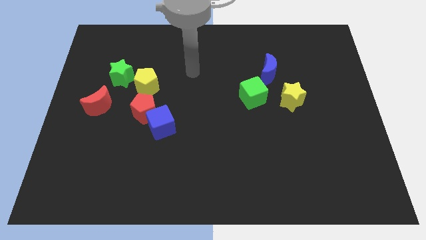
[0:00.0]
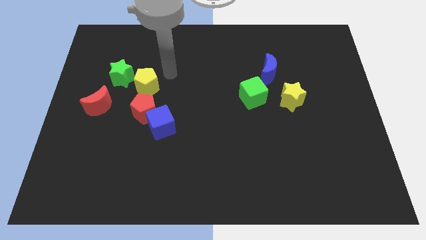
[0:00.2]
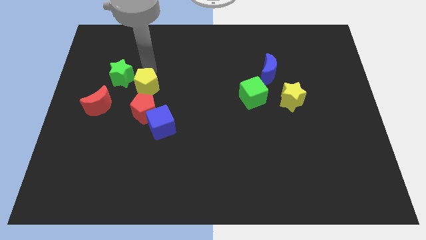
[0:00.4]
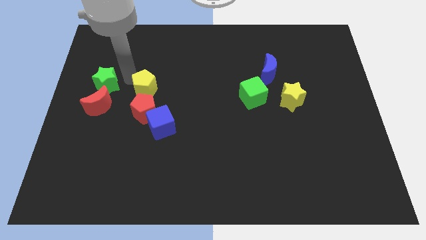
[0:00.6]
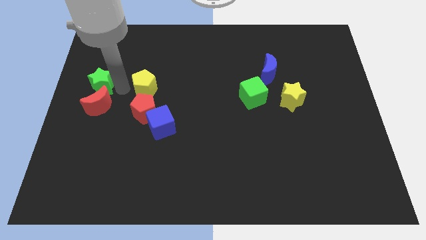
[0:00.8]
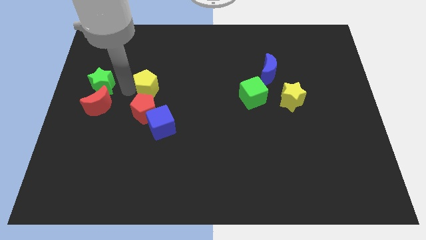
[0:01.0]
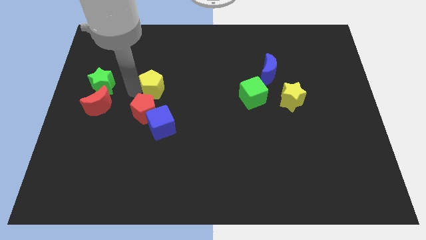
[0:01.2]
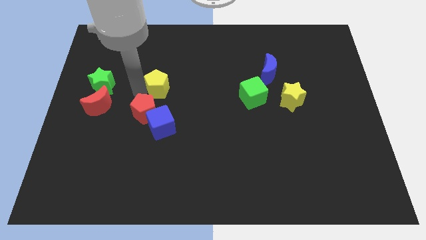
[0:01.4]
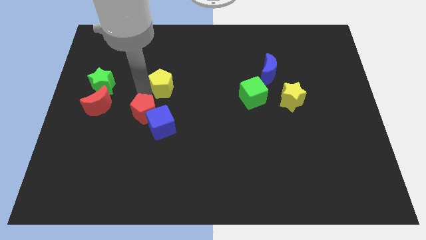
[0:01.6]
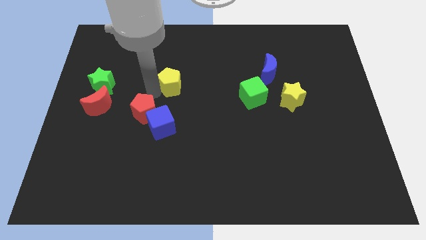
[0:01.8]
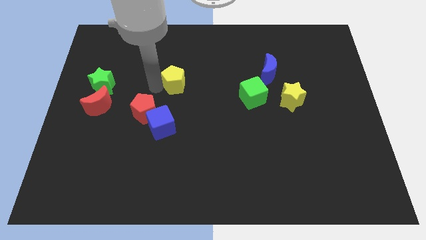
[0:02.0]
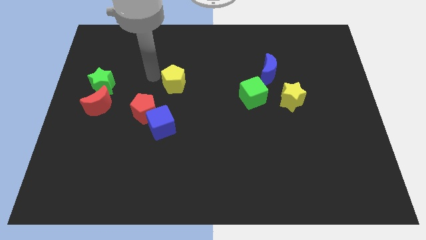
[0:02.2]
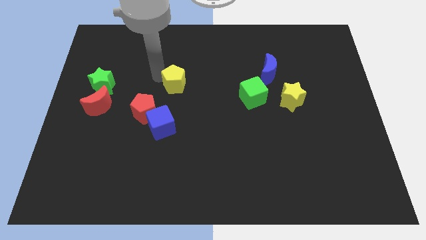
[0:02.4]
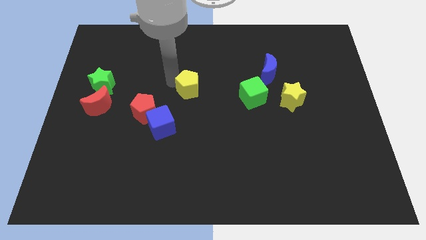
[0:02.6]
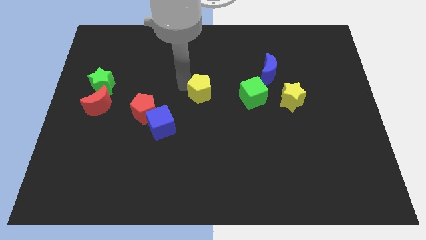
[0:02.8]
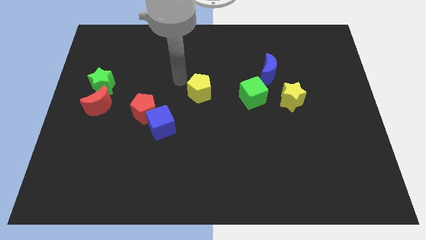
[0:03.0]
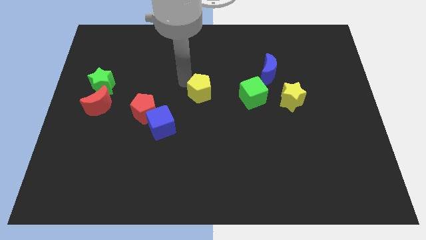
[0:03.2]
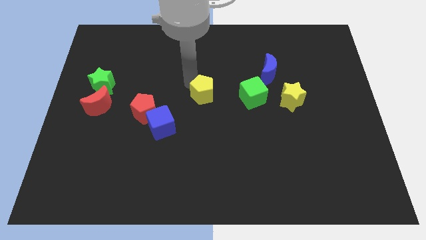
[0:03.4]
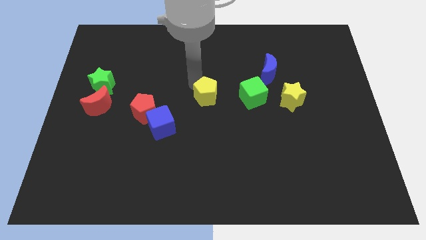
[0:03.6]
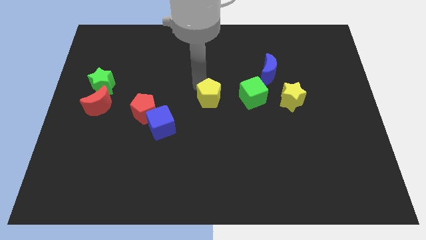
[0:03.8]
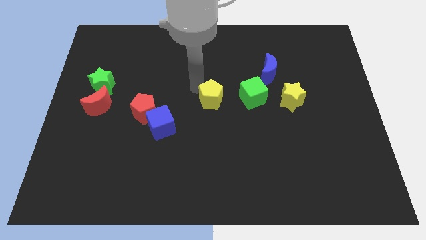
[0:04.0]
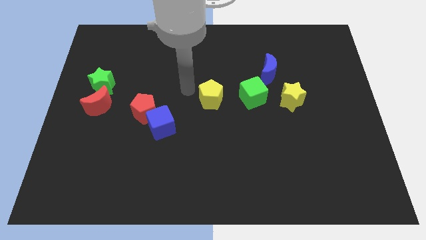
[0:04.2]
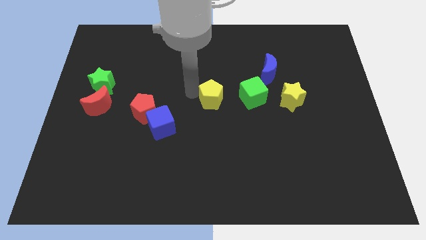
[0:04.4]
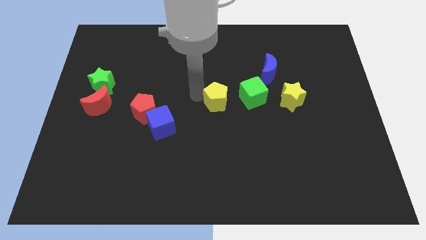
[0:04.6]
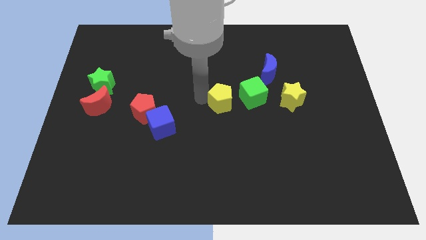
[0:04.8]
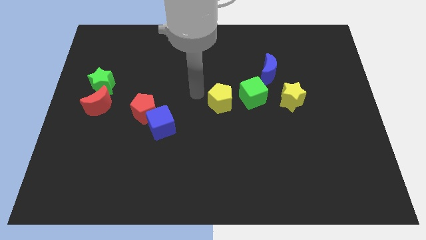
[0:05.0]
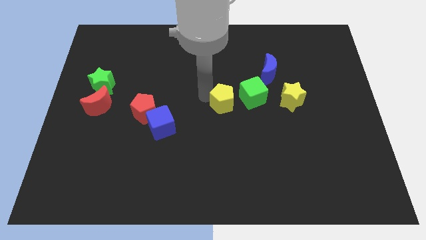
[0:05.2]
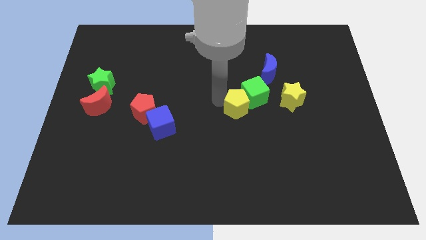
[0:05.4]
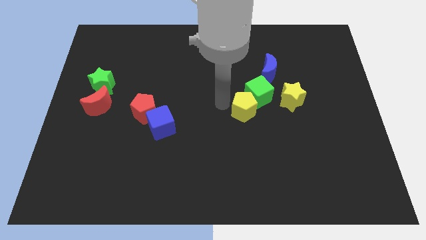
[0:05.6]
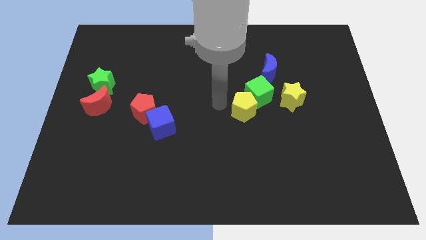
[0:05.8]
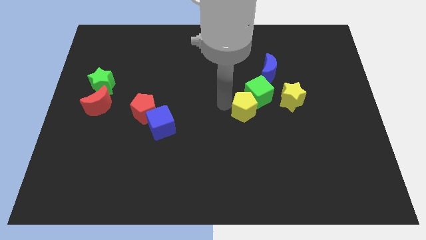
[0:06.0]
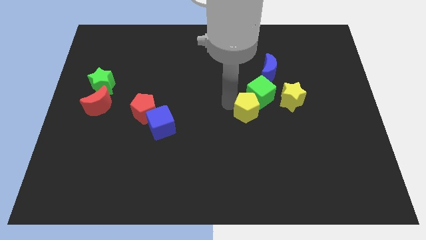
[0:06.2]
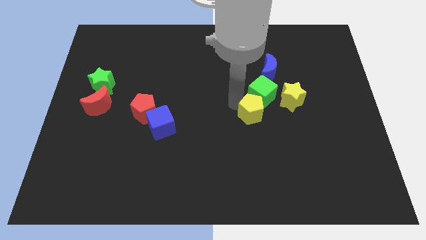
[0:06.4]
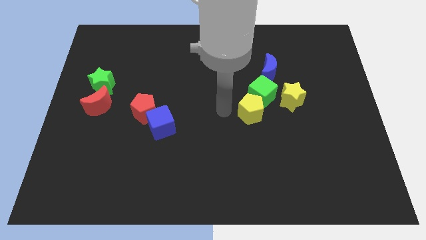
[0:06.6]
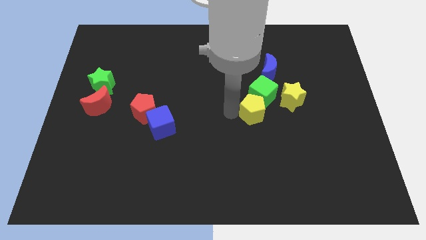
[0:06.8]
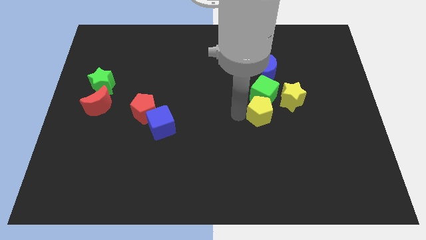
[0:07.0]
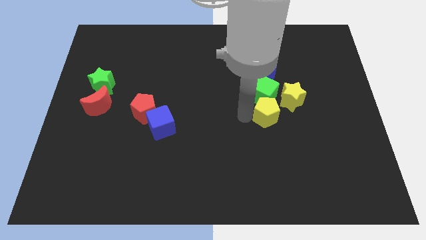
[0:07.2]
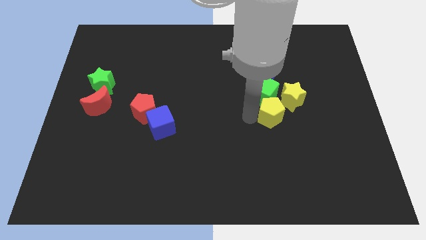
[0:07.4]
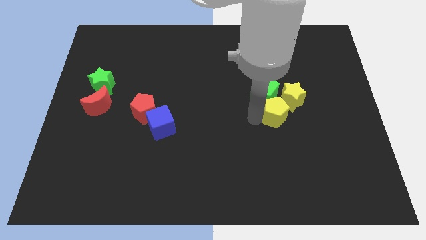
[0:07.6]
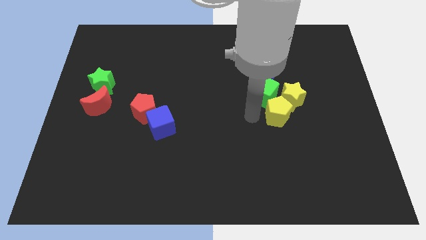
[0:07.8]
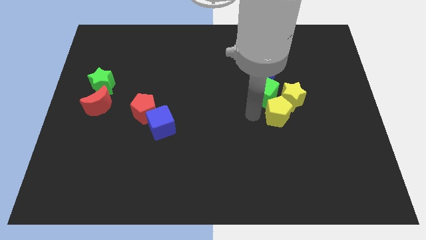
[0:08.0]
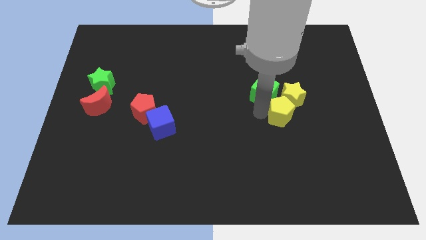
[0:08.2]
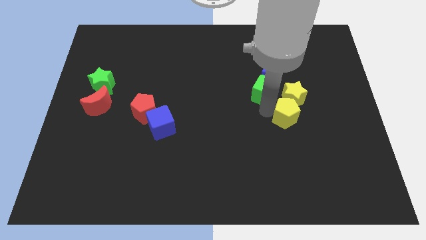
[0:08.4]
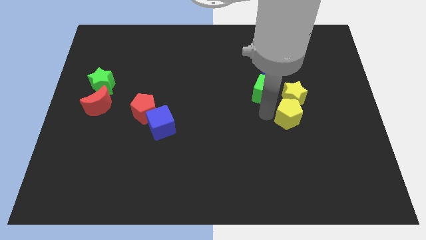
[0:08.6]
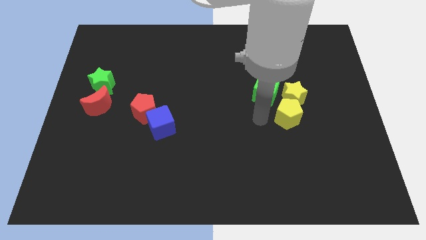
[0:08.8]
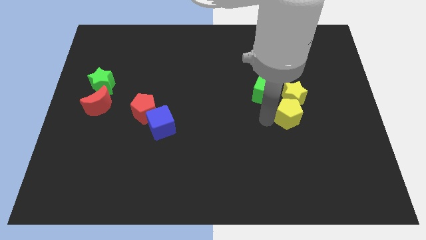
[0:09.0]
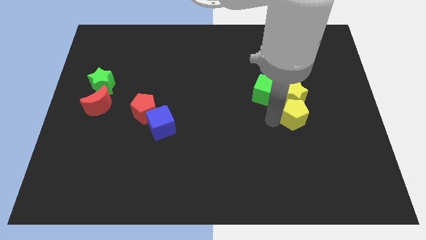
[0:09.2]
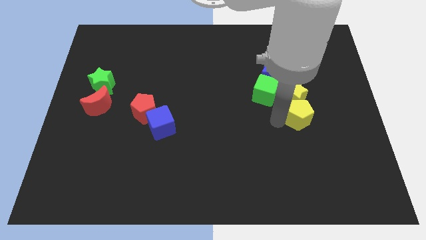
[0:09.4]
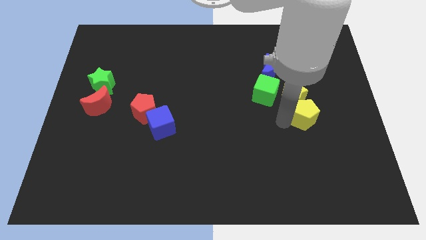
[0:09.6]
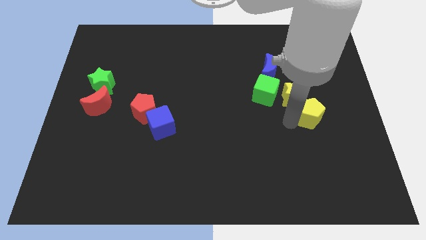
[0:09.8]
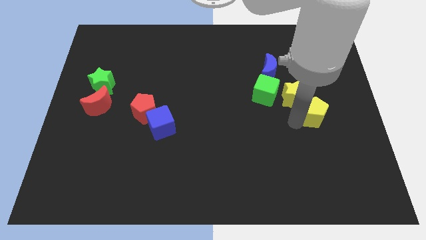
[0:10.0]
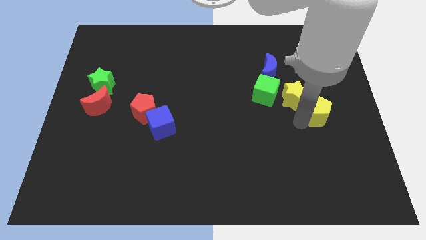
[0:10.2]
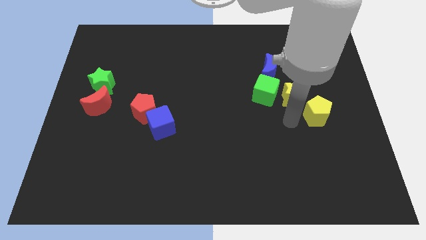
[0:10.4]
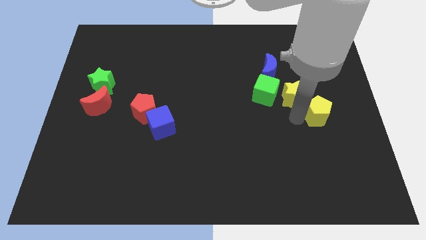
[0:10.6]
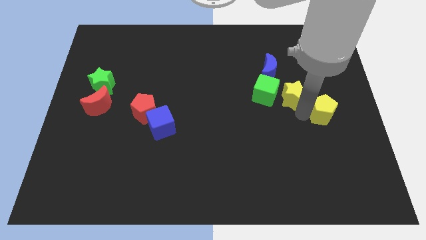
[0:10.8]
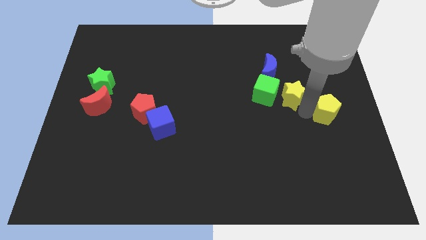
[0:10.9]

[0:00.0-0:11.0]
push the yellow pentagon to the right side
